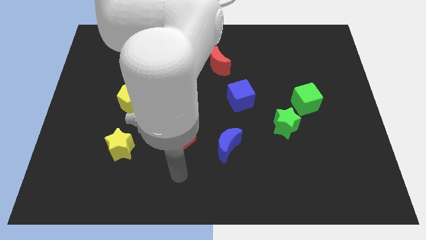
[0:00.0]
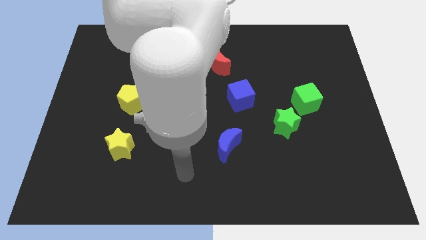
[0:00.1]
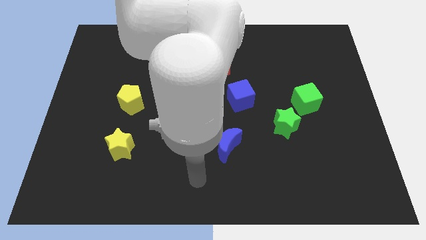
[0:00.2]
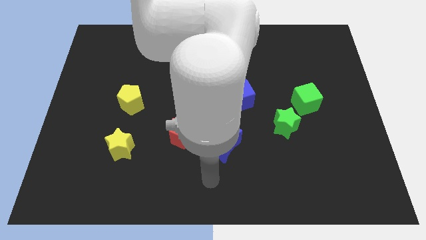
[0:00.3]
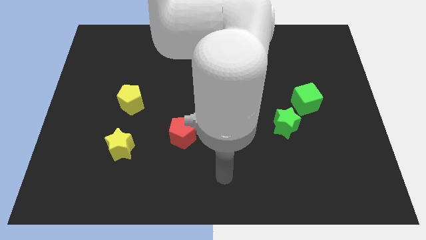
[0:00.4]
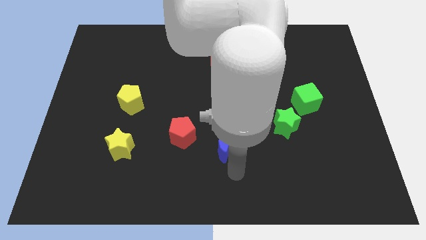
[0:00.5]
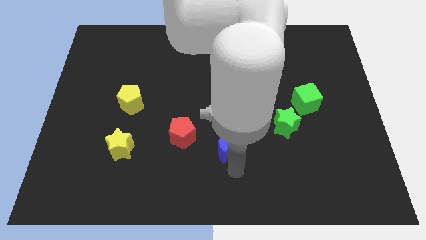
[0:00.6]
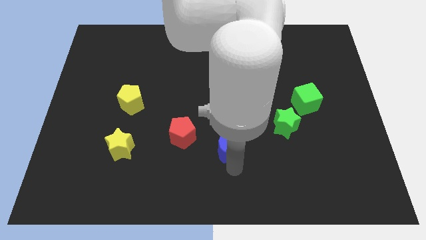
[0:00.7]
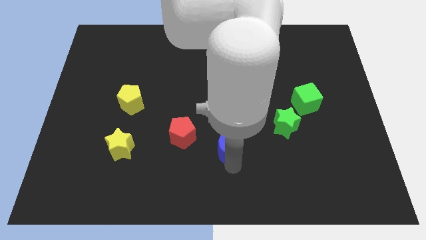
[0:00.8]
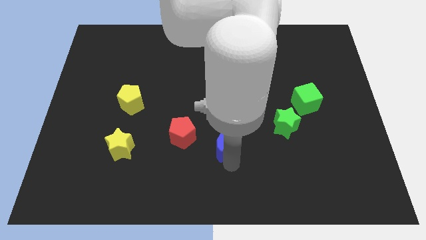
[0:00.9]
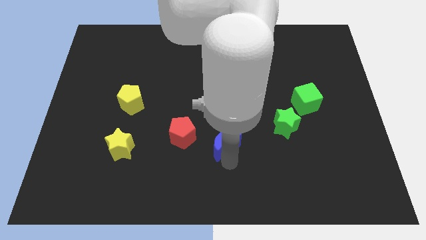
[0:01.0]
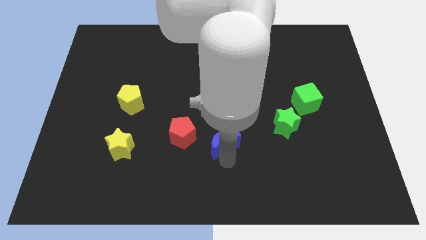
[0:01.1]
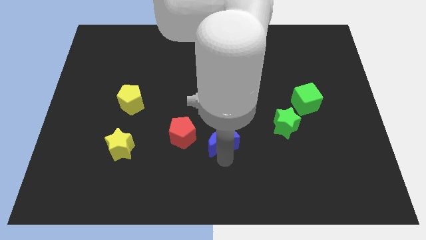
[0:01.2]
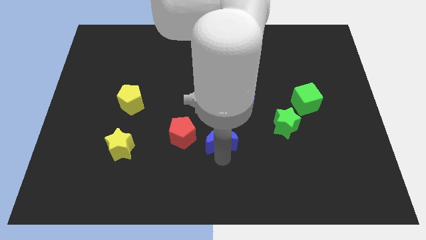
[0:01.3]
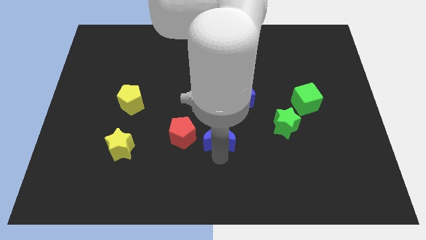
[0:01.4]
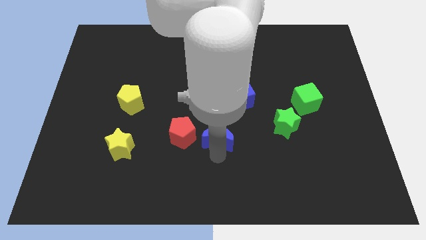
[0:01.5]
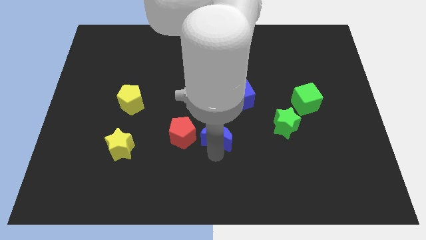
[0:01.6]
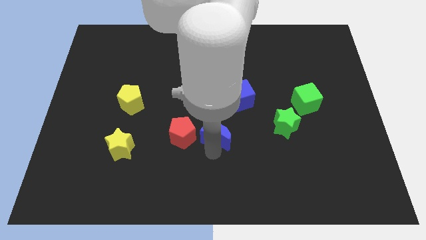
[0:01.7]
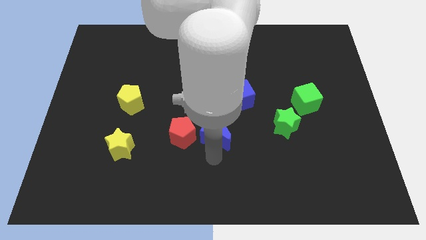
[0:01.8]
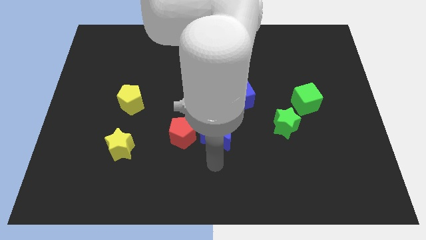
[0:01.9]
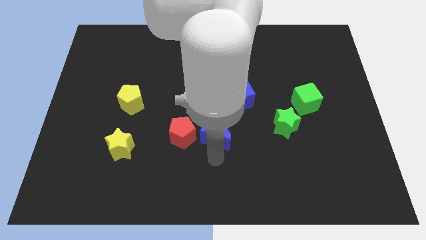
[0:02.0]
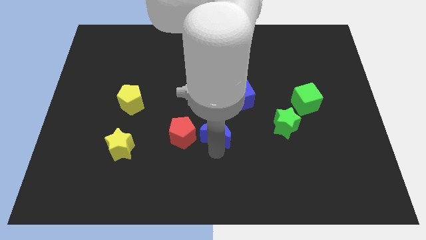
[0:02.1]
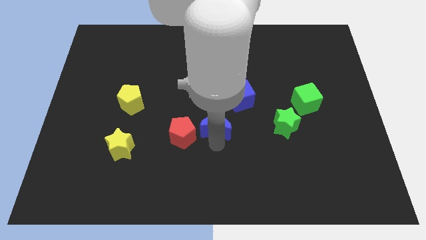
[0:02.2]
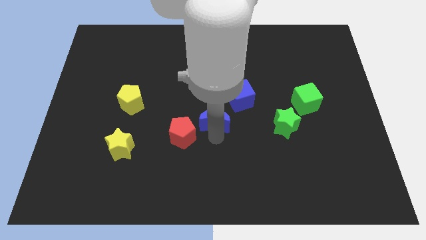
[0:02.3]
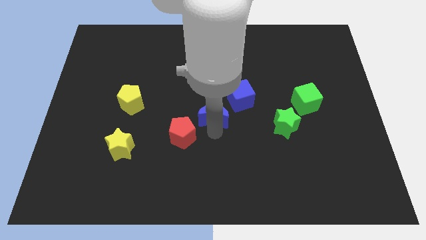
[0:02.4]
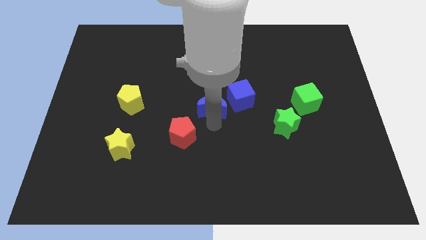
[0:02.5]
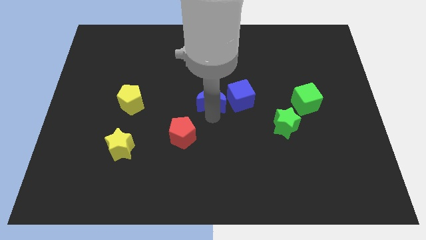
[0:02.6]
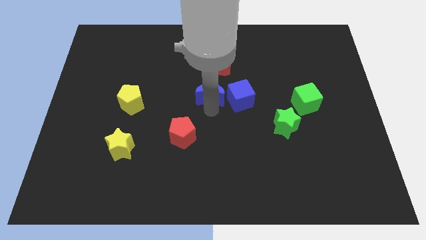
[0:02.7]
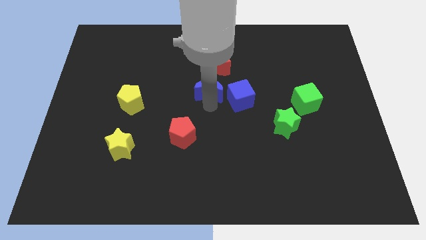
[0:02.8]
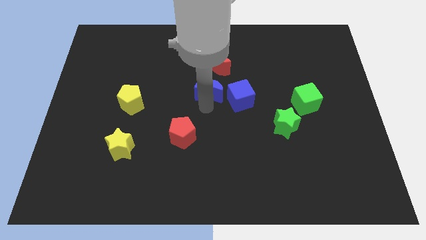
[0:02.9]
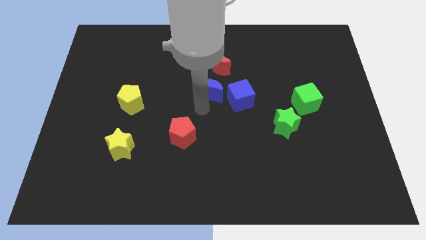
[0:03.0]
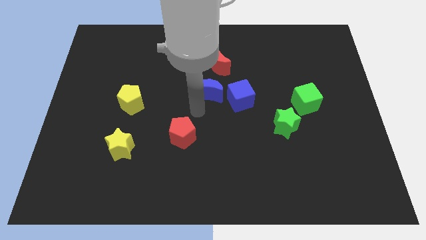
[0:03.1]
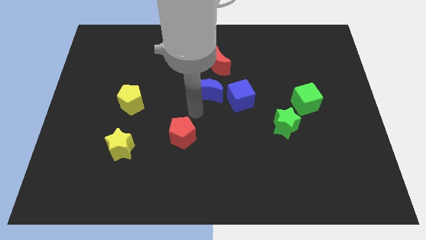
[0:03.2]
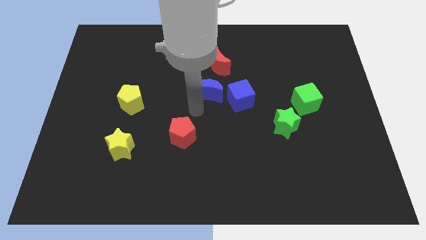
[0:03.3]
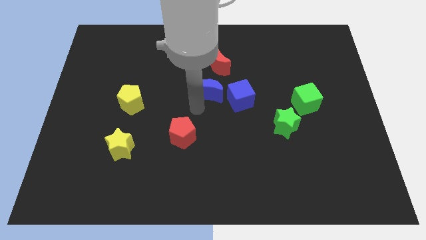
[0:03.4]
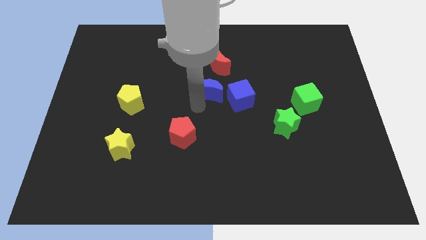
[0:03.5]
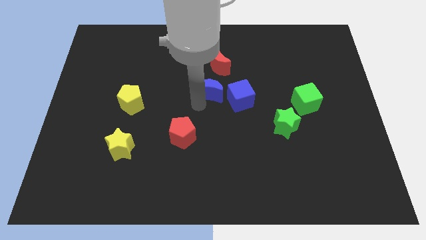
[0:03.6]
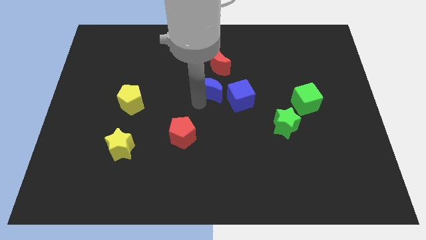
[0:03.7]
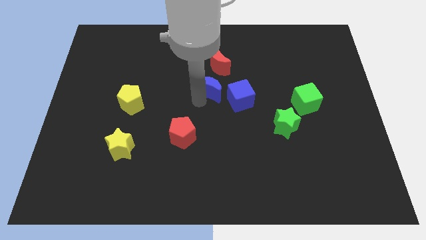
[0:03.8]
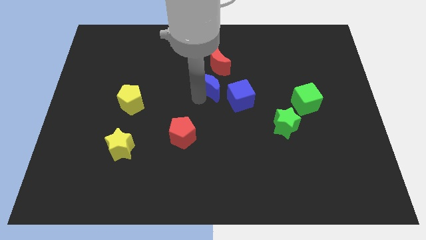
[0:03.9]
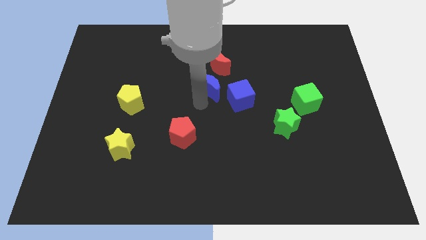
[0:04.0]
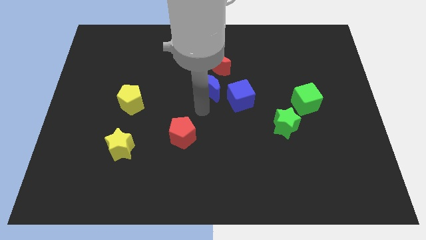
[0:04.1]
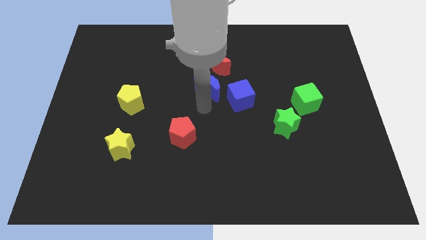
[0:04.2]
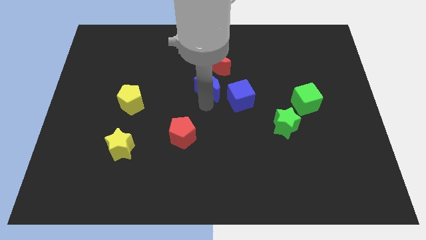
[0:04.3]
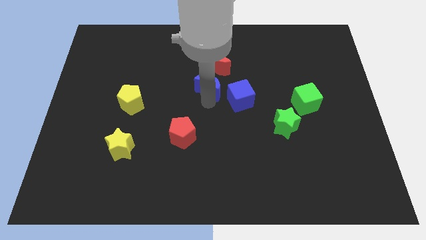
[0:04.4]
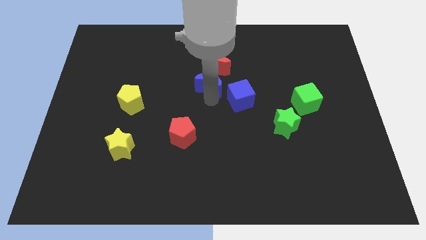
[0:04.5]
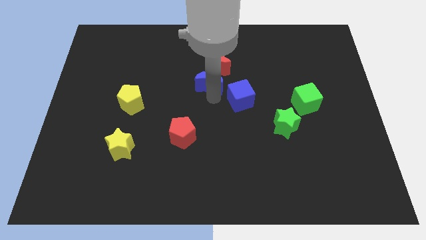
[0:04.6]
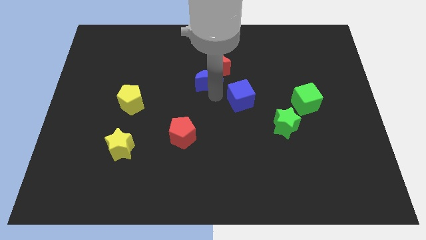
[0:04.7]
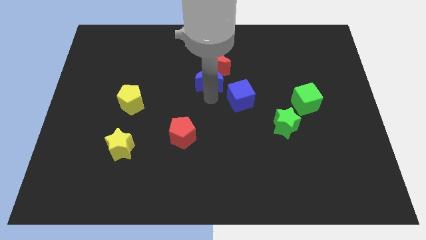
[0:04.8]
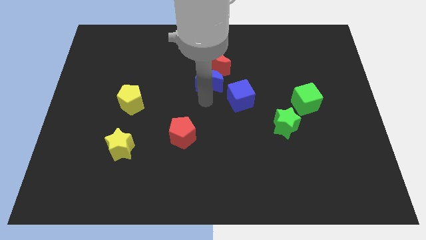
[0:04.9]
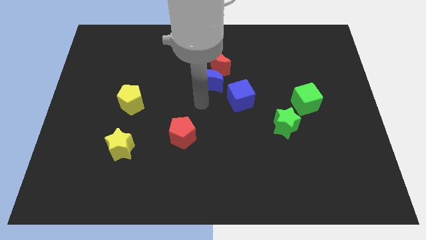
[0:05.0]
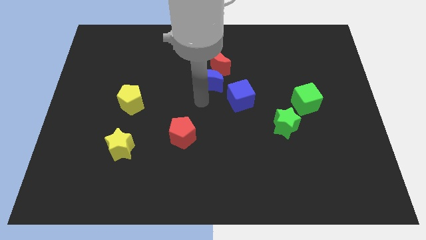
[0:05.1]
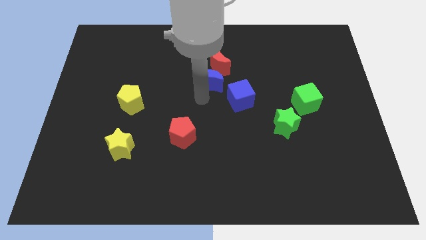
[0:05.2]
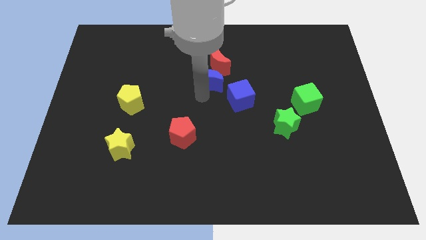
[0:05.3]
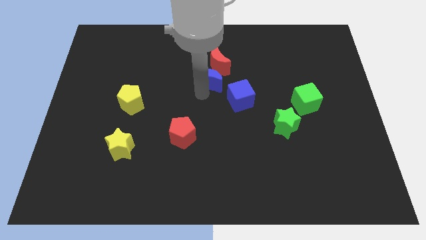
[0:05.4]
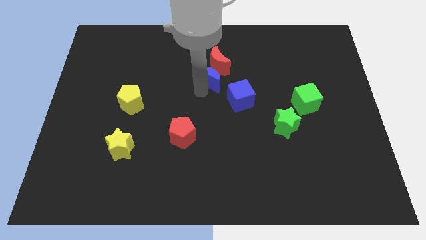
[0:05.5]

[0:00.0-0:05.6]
push the blue moon to the red moon

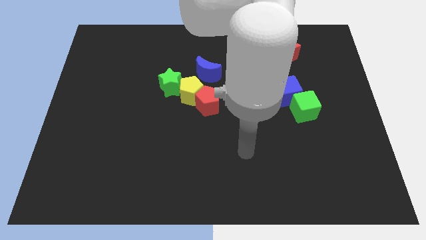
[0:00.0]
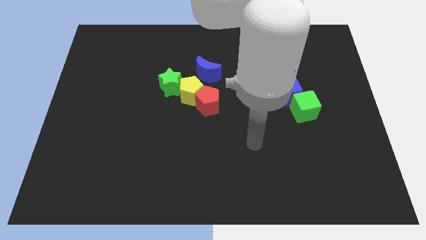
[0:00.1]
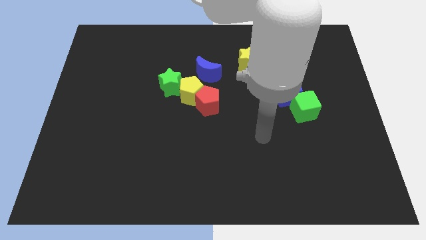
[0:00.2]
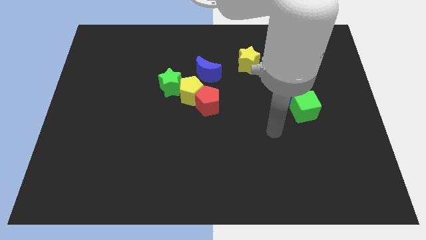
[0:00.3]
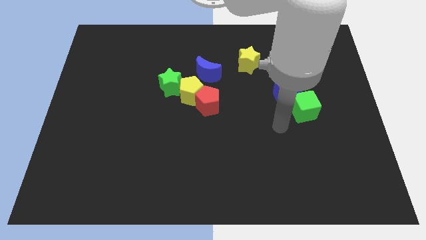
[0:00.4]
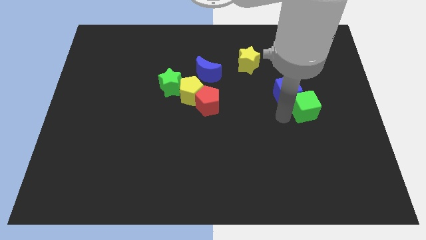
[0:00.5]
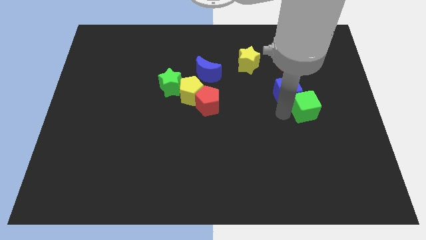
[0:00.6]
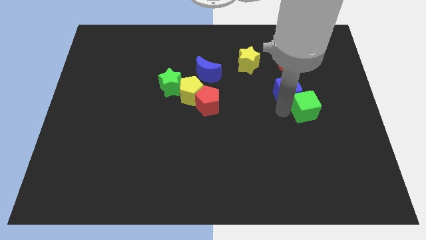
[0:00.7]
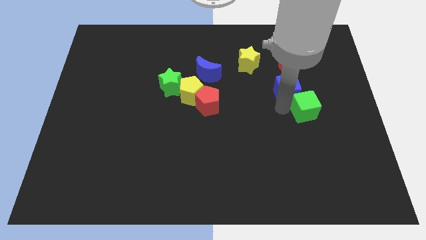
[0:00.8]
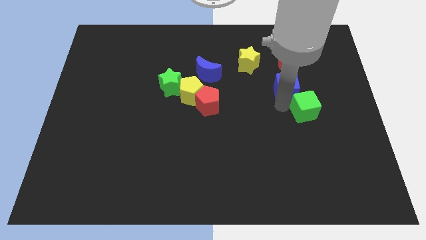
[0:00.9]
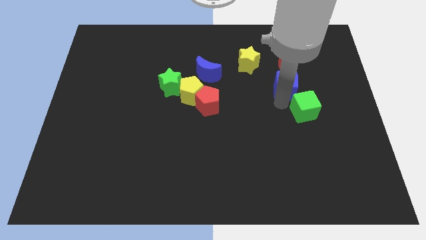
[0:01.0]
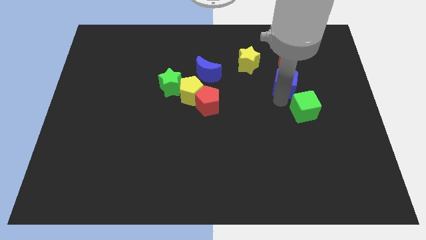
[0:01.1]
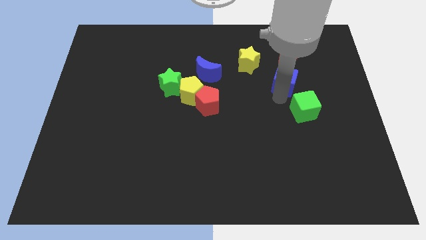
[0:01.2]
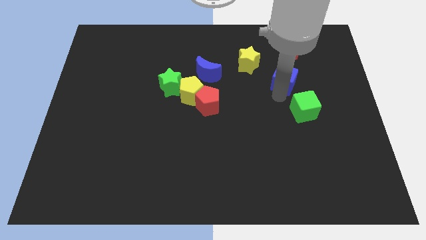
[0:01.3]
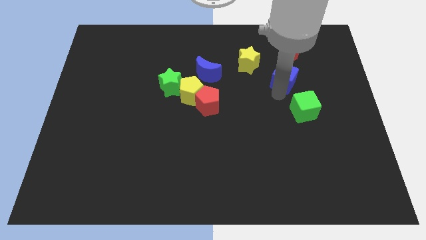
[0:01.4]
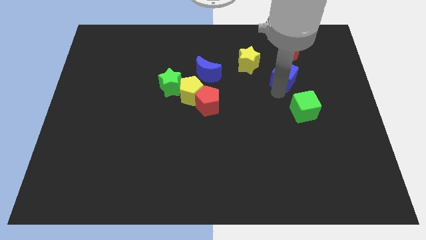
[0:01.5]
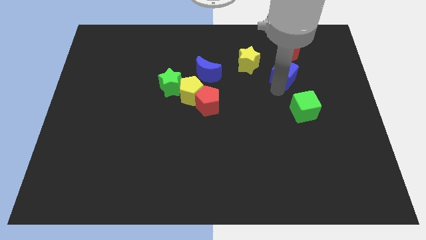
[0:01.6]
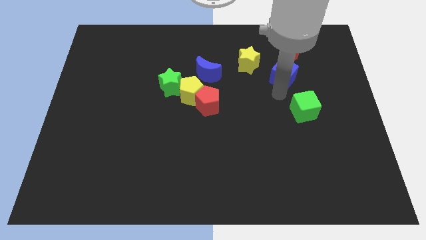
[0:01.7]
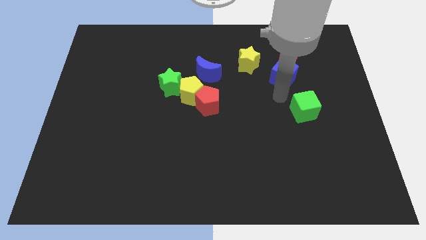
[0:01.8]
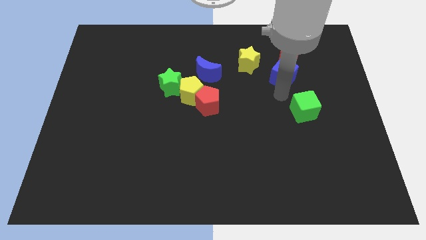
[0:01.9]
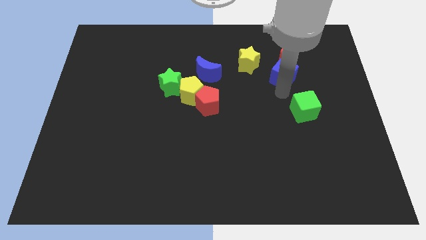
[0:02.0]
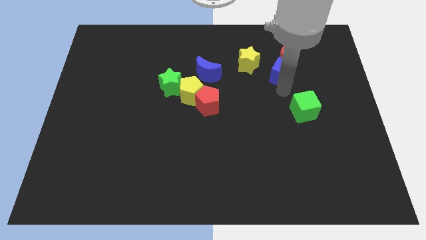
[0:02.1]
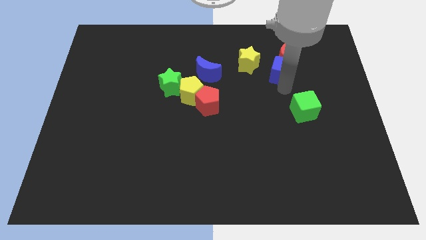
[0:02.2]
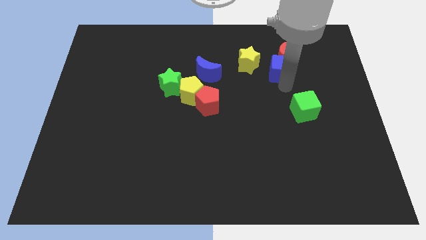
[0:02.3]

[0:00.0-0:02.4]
slide the blue cube close to the red moon
